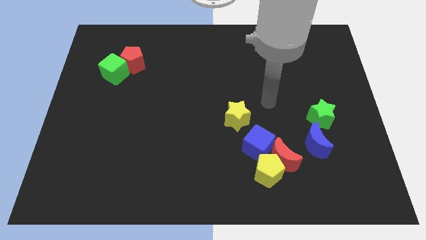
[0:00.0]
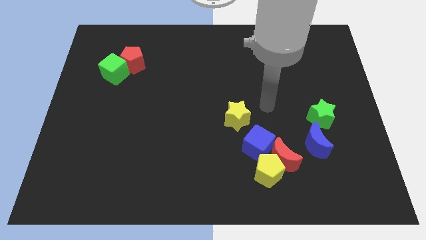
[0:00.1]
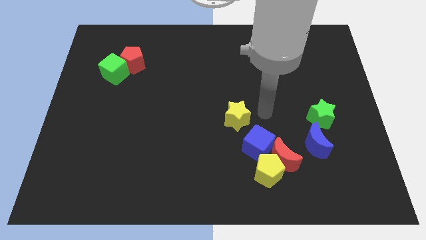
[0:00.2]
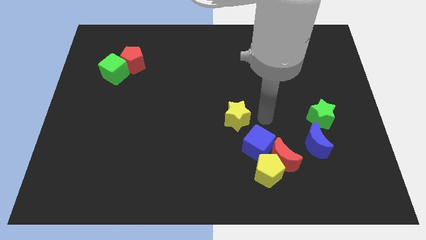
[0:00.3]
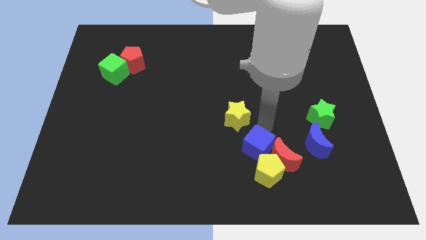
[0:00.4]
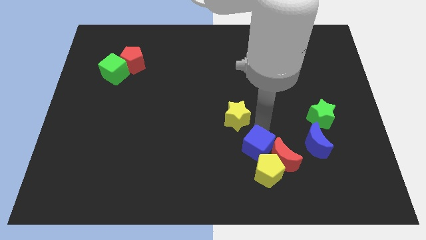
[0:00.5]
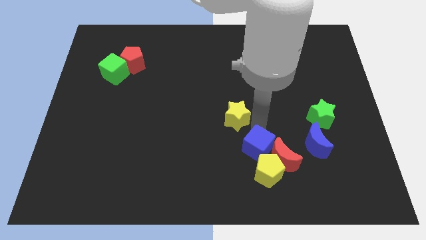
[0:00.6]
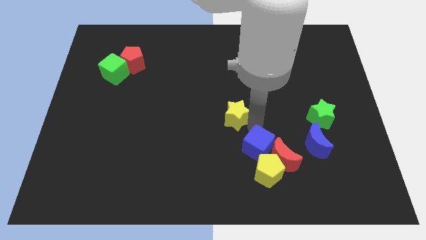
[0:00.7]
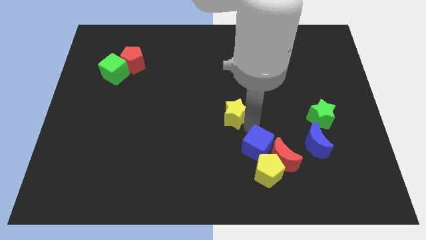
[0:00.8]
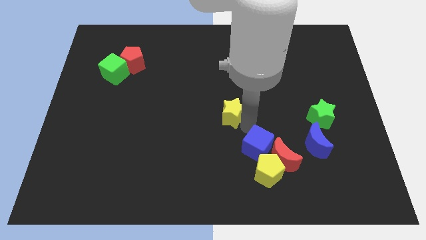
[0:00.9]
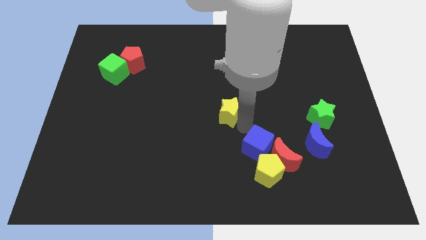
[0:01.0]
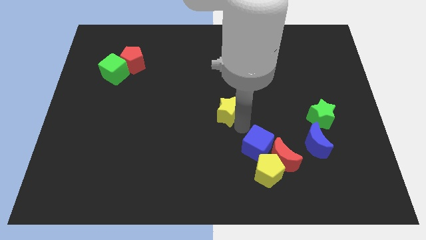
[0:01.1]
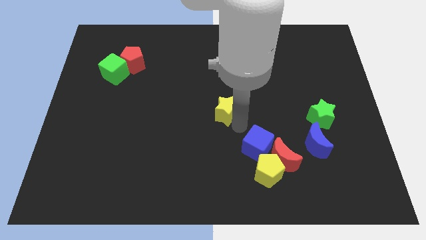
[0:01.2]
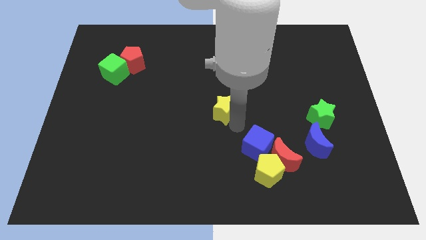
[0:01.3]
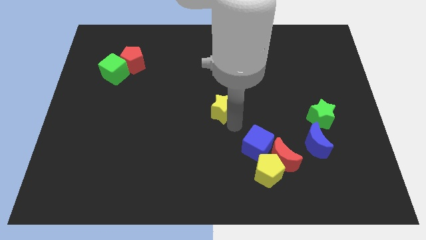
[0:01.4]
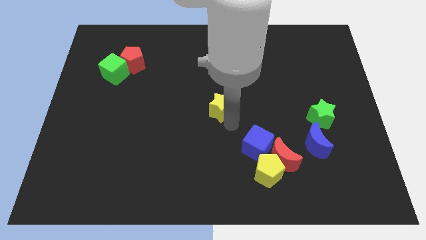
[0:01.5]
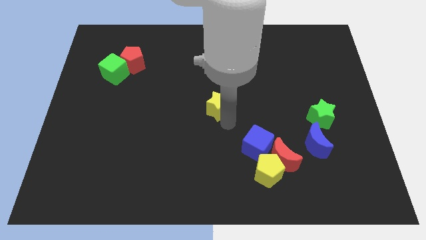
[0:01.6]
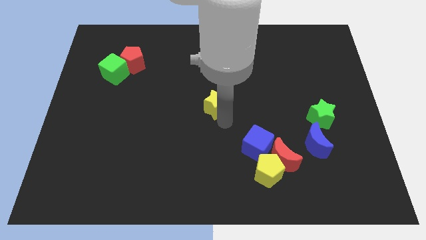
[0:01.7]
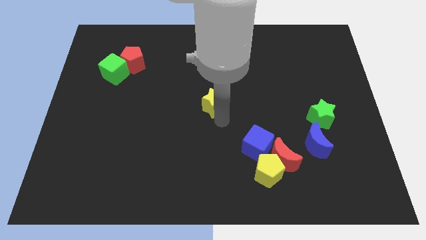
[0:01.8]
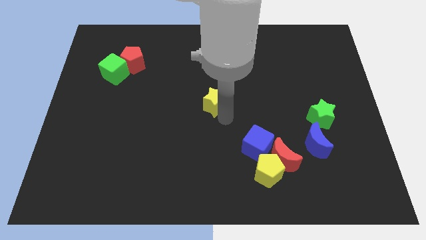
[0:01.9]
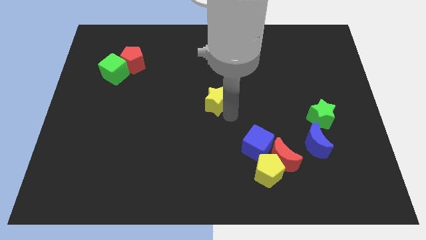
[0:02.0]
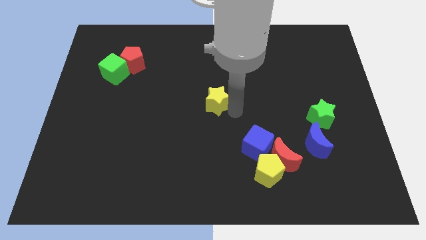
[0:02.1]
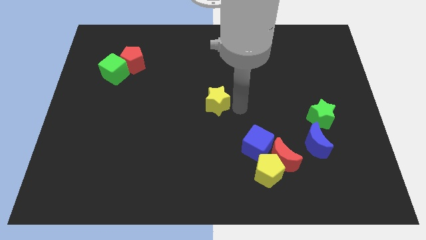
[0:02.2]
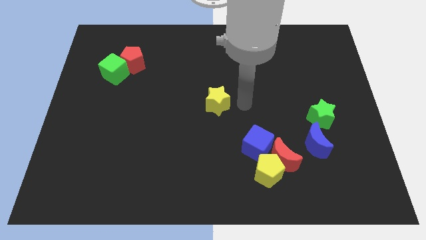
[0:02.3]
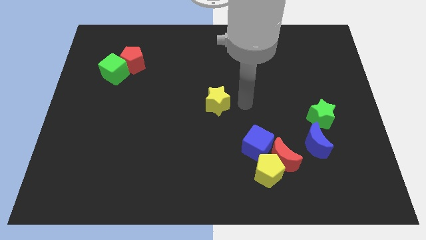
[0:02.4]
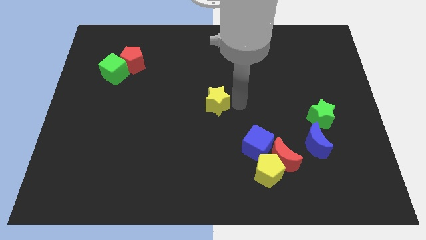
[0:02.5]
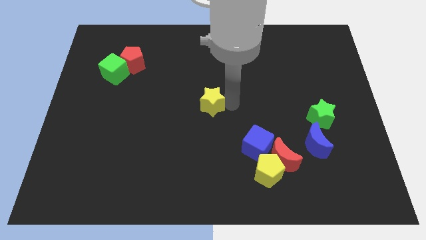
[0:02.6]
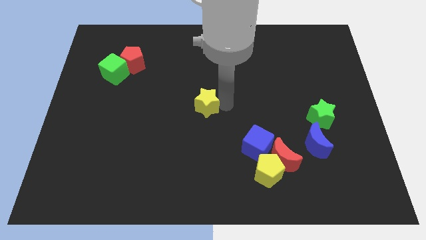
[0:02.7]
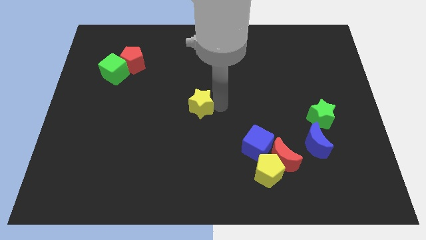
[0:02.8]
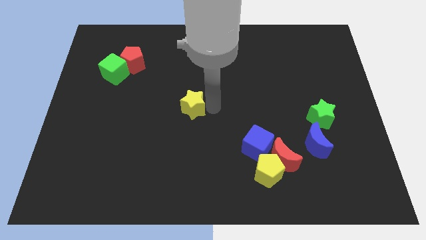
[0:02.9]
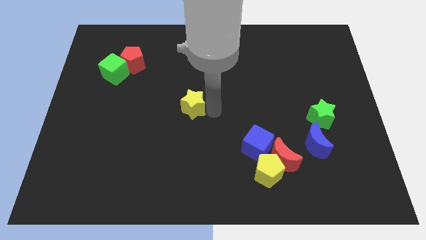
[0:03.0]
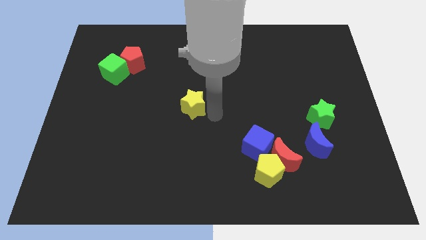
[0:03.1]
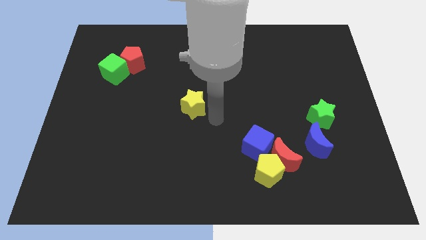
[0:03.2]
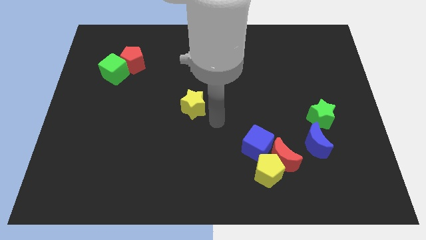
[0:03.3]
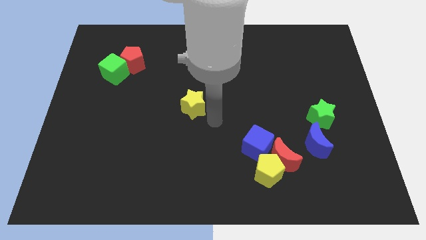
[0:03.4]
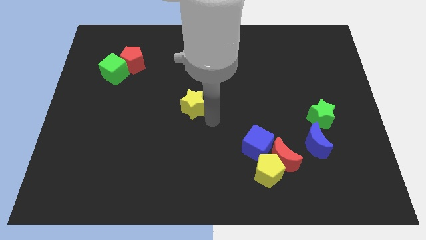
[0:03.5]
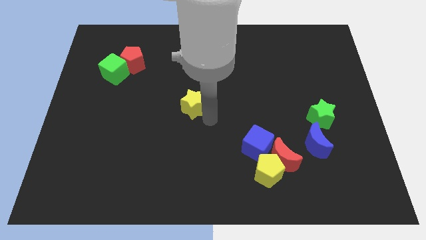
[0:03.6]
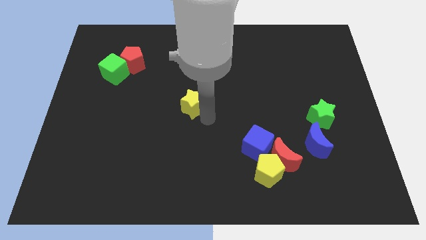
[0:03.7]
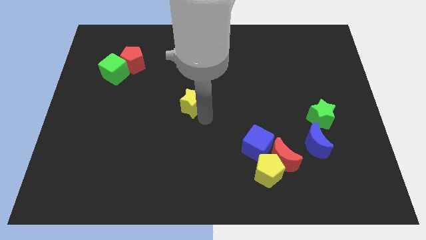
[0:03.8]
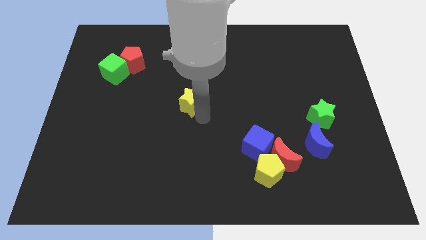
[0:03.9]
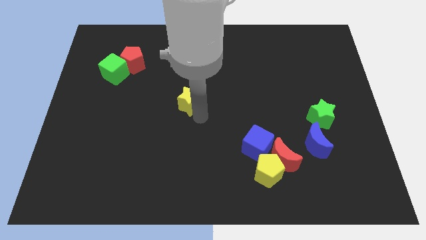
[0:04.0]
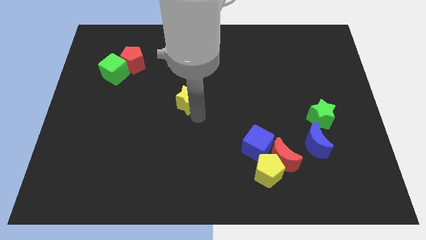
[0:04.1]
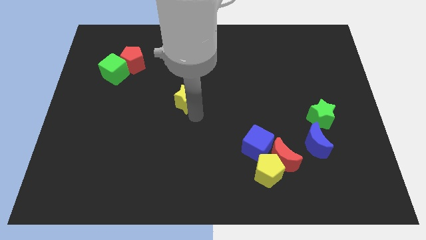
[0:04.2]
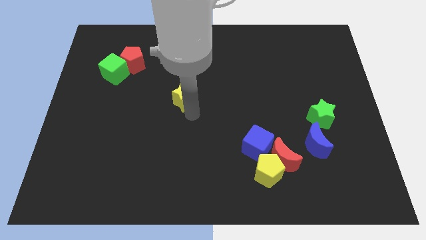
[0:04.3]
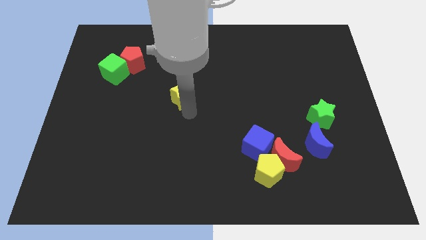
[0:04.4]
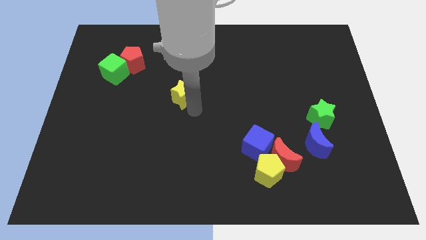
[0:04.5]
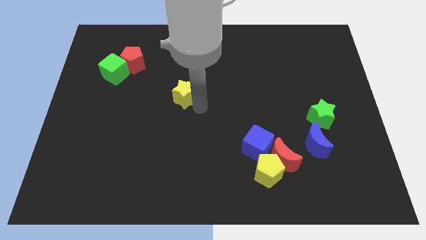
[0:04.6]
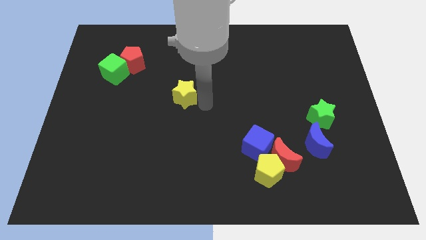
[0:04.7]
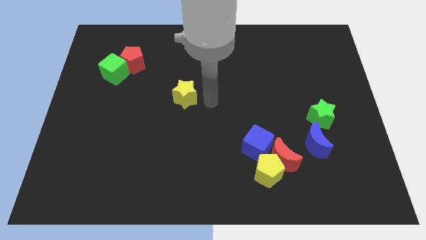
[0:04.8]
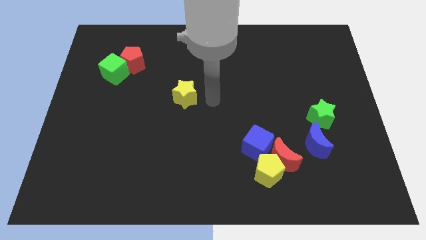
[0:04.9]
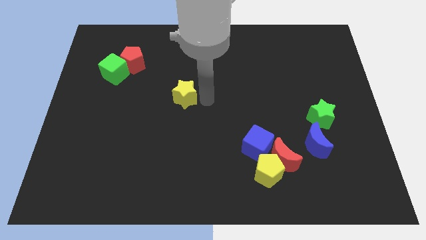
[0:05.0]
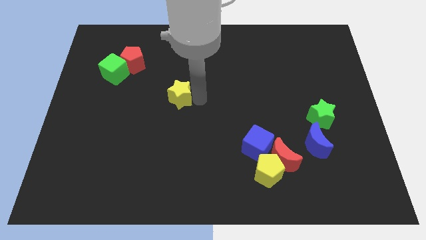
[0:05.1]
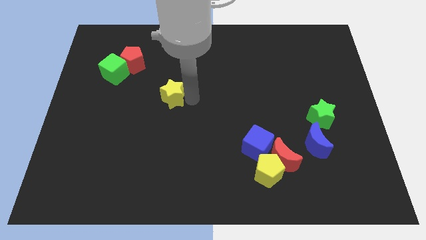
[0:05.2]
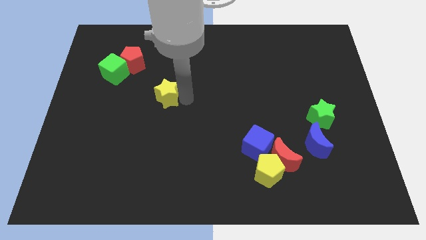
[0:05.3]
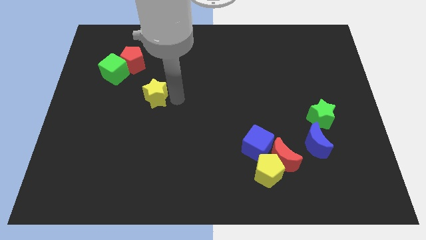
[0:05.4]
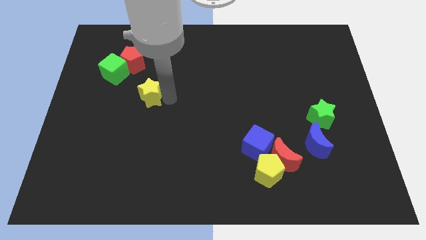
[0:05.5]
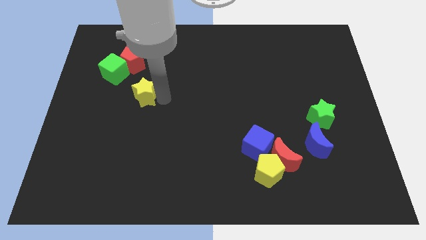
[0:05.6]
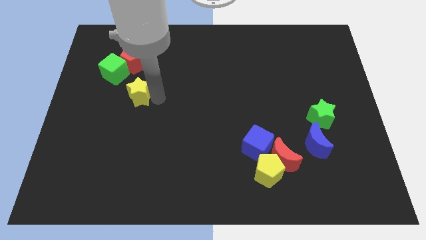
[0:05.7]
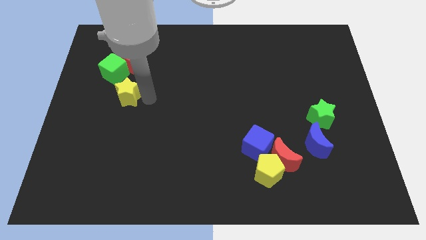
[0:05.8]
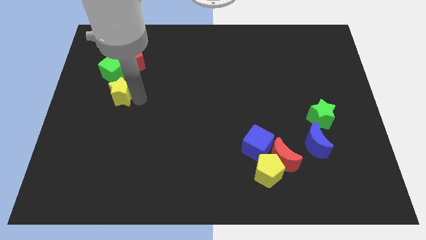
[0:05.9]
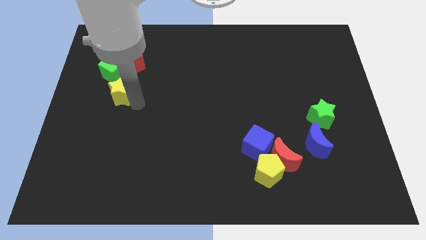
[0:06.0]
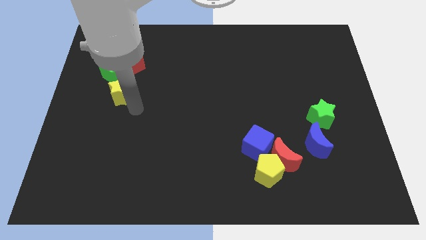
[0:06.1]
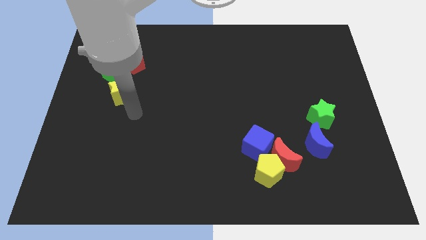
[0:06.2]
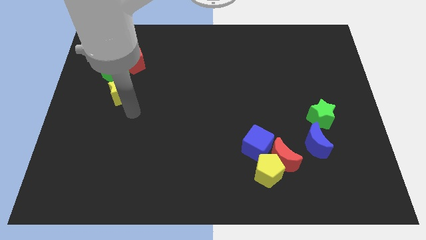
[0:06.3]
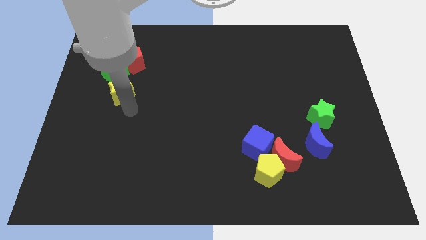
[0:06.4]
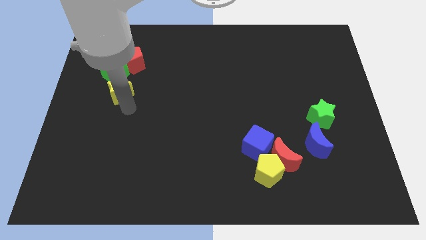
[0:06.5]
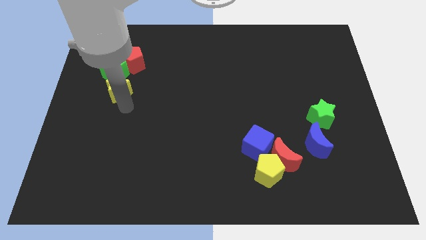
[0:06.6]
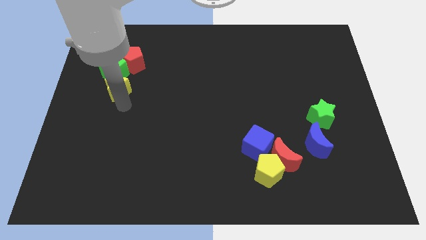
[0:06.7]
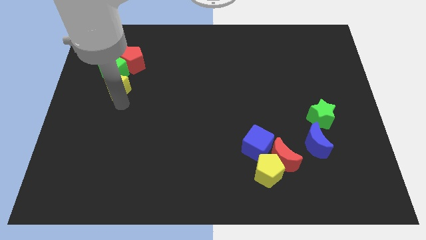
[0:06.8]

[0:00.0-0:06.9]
put the yellow star to the bottom left side of the red pentagon

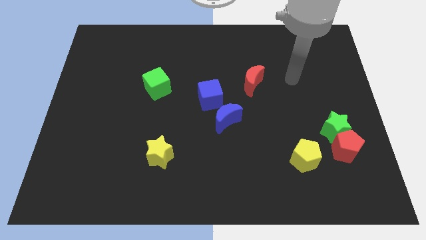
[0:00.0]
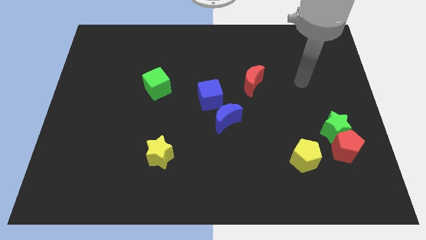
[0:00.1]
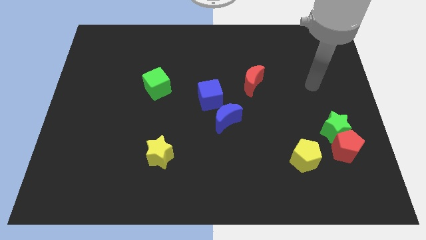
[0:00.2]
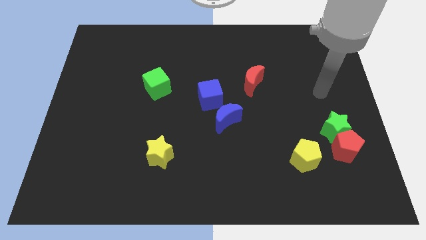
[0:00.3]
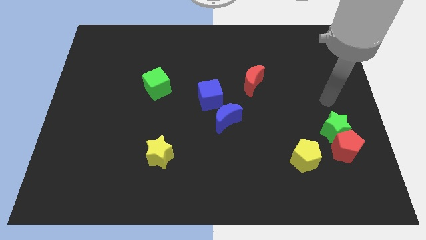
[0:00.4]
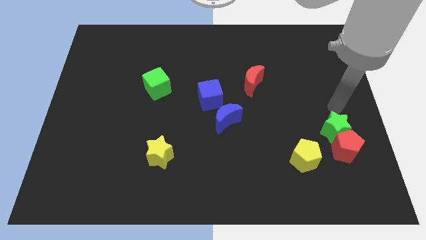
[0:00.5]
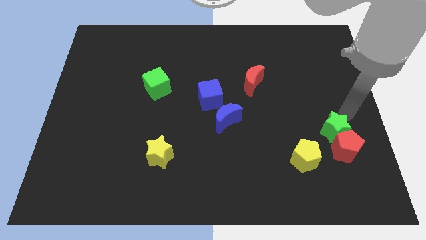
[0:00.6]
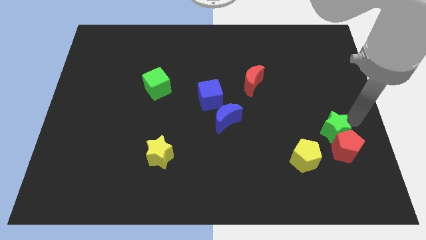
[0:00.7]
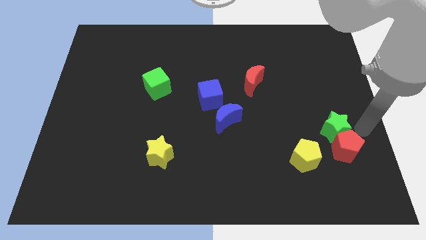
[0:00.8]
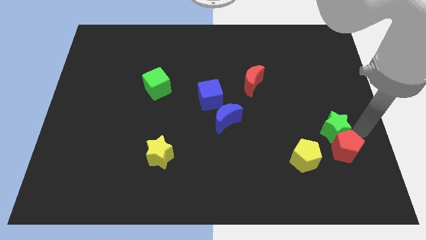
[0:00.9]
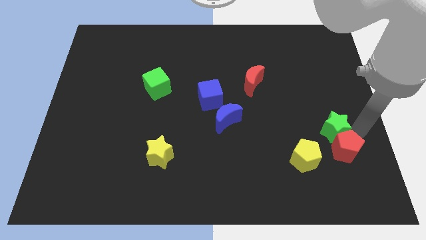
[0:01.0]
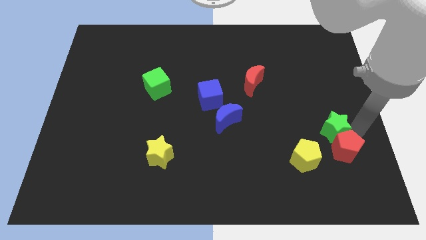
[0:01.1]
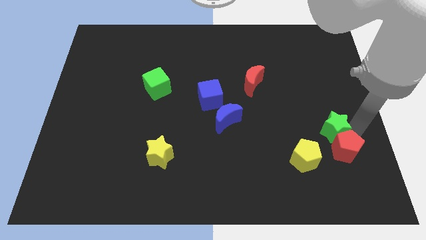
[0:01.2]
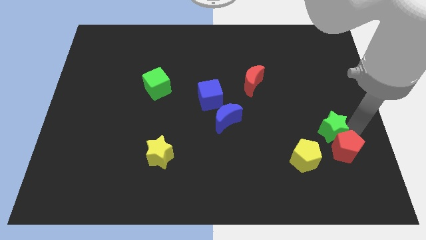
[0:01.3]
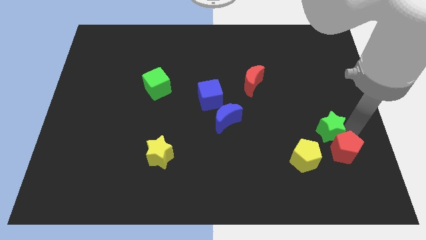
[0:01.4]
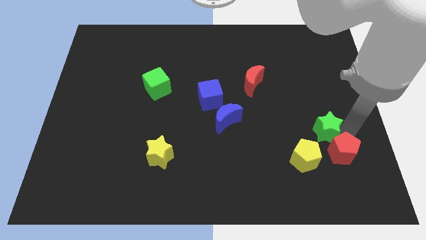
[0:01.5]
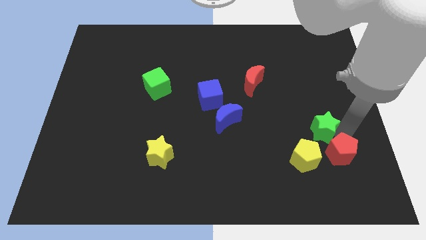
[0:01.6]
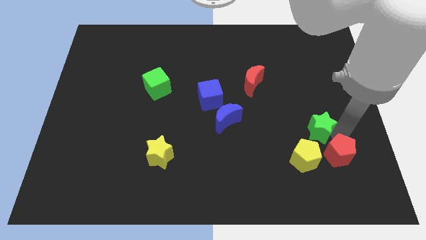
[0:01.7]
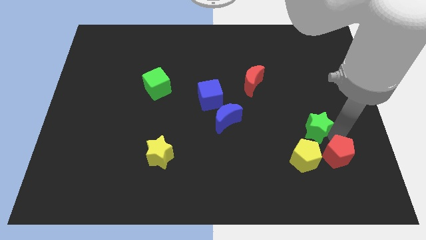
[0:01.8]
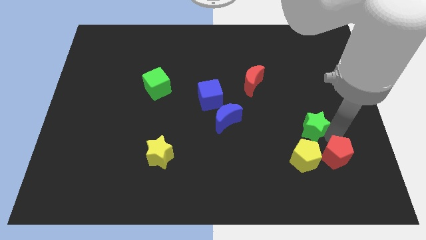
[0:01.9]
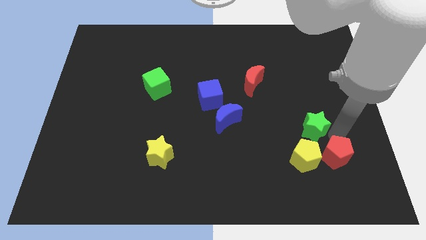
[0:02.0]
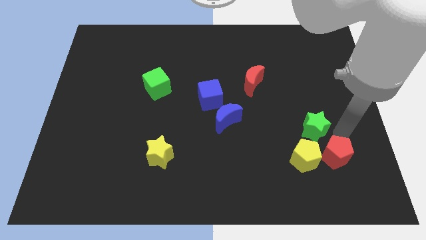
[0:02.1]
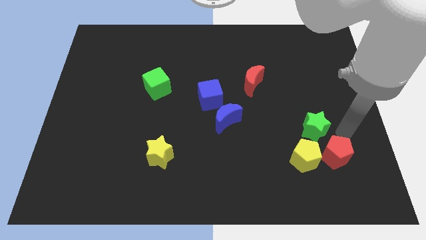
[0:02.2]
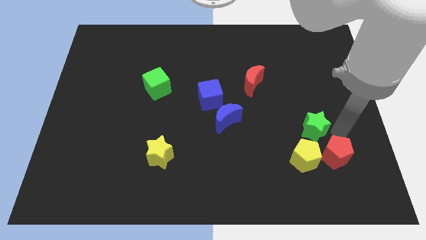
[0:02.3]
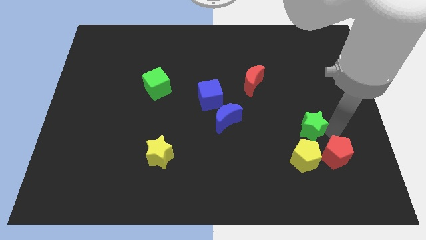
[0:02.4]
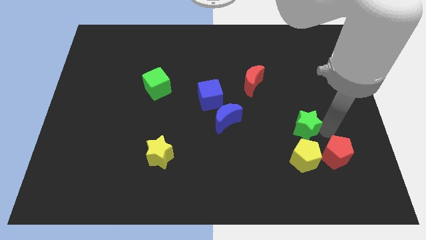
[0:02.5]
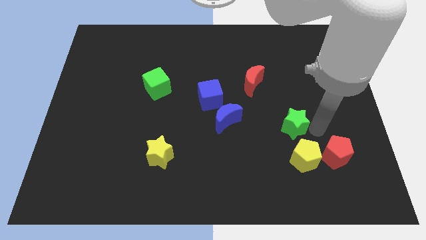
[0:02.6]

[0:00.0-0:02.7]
put the green star to the right side of the blue moon
